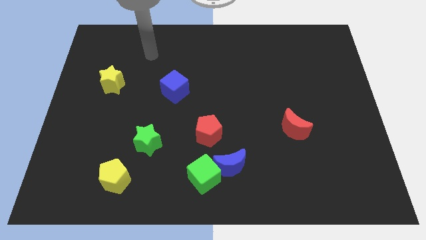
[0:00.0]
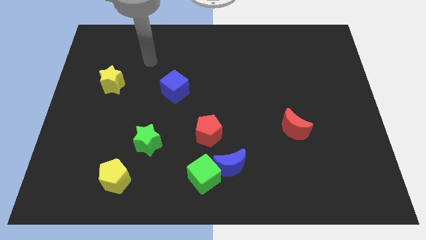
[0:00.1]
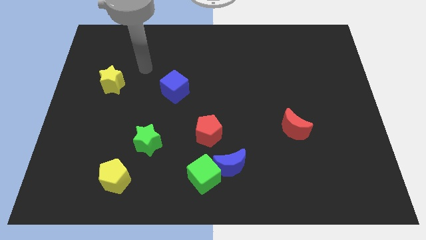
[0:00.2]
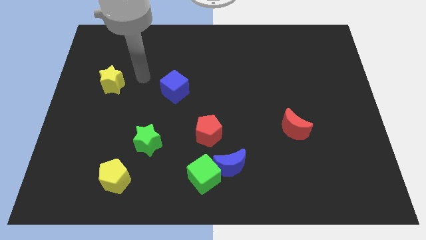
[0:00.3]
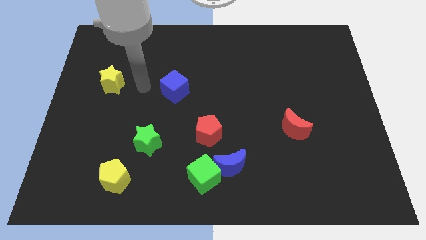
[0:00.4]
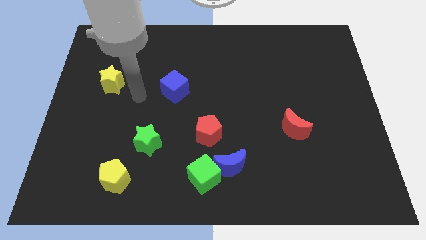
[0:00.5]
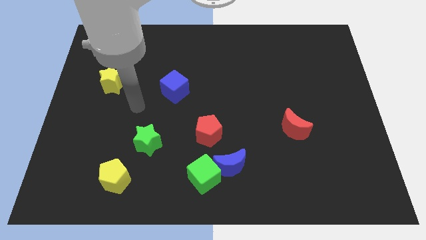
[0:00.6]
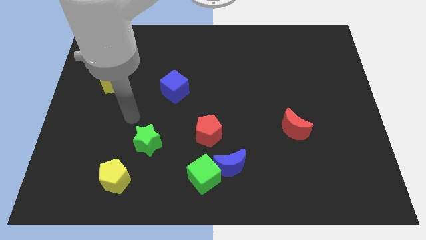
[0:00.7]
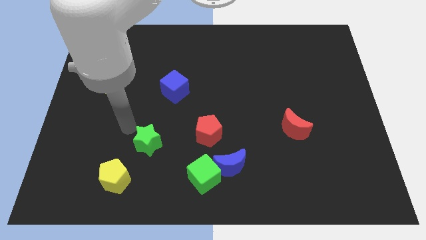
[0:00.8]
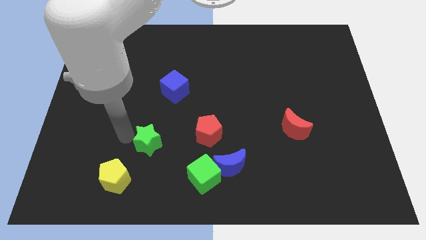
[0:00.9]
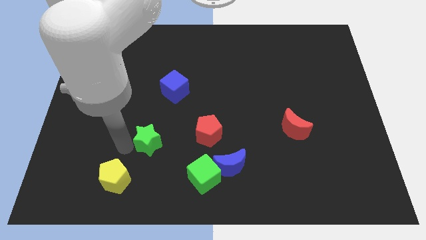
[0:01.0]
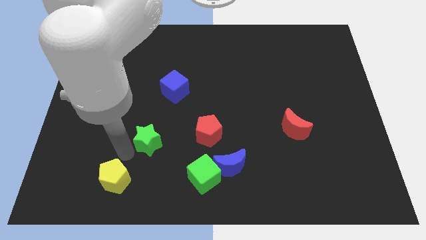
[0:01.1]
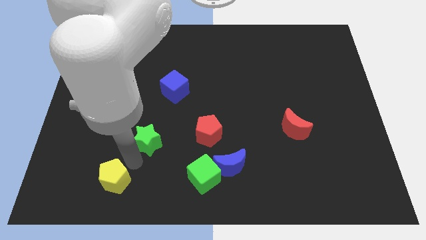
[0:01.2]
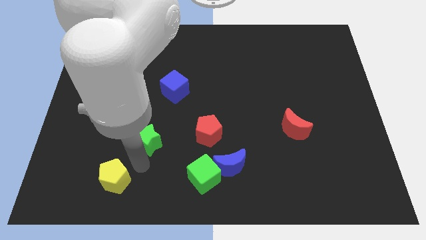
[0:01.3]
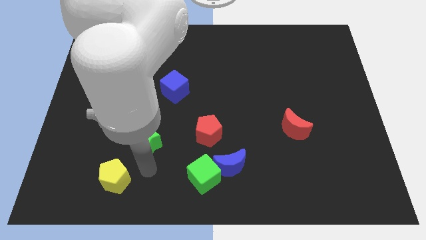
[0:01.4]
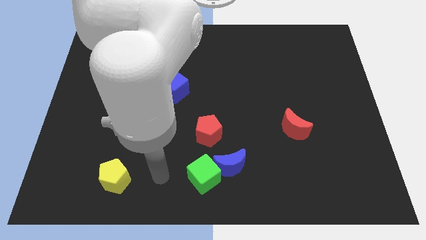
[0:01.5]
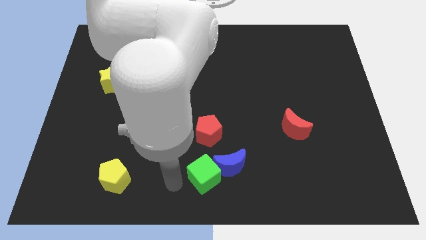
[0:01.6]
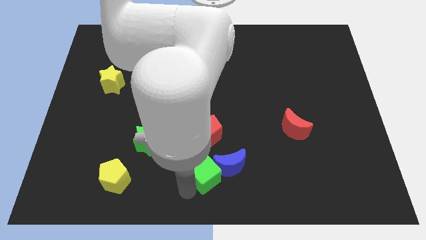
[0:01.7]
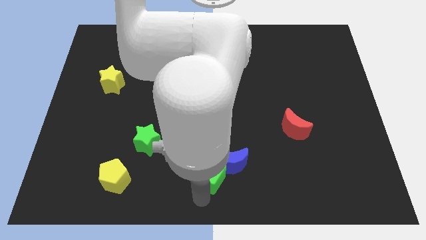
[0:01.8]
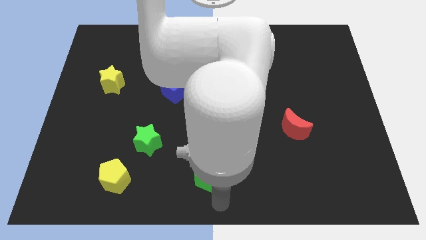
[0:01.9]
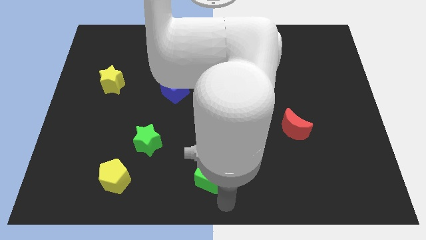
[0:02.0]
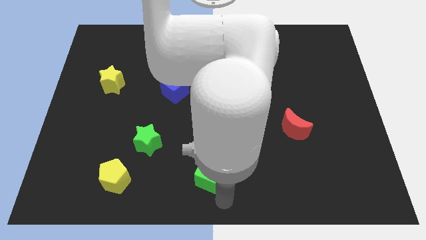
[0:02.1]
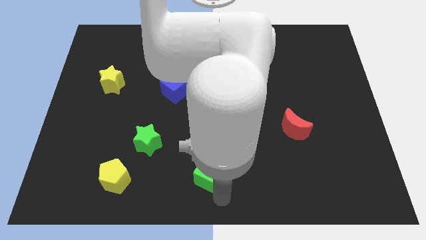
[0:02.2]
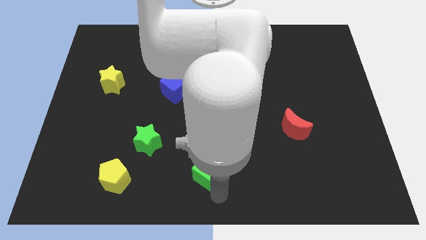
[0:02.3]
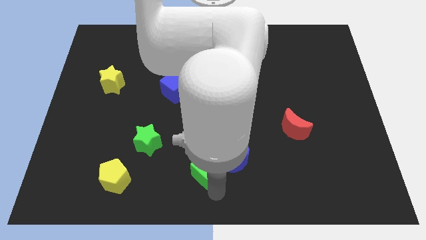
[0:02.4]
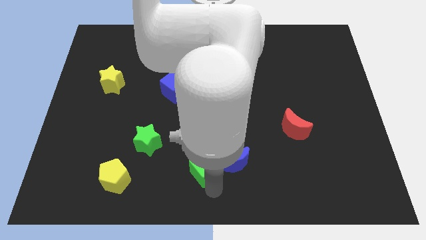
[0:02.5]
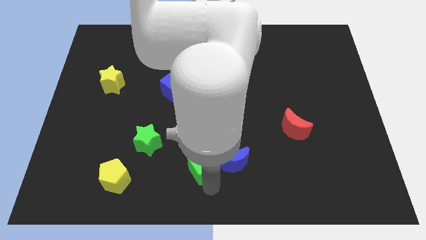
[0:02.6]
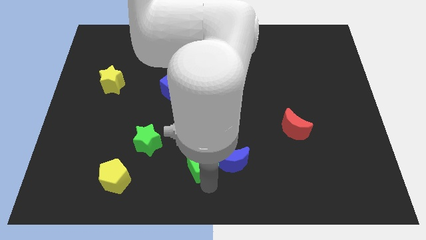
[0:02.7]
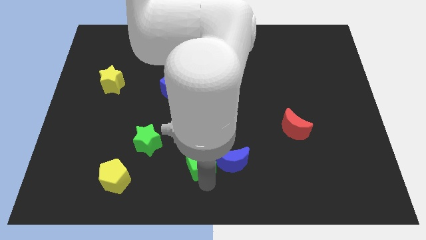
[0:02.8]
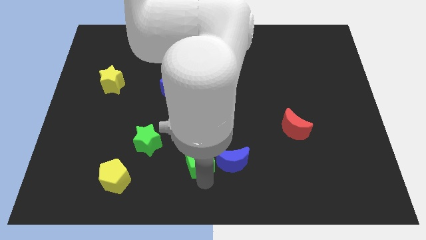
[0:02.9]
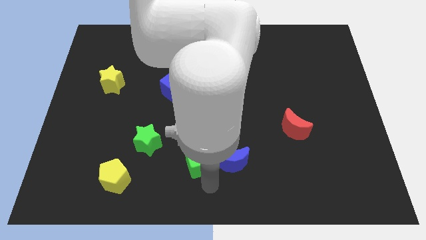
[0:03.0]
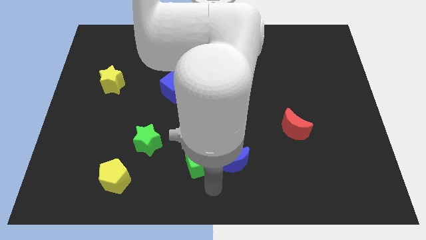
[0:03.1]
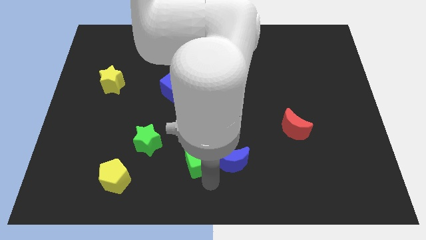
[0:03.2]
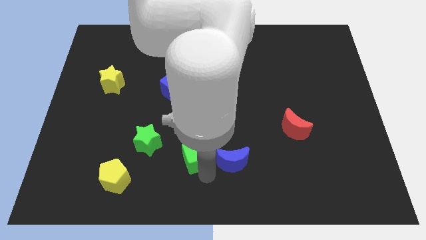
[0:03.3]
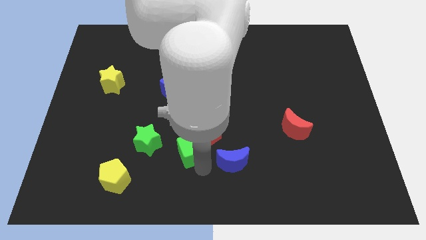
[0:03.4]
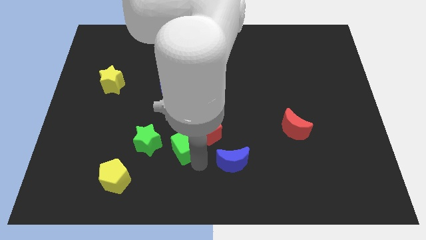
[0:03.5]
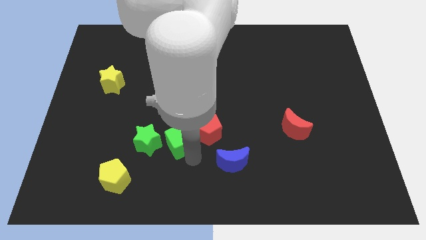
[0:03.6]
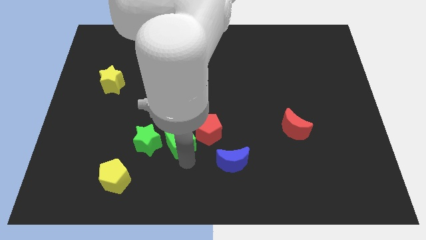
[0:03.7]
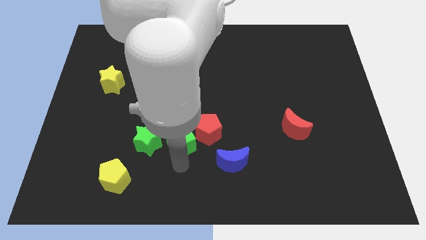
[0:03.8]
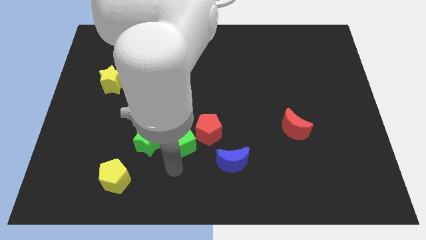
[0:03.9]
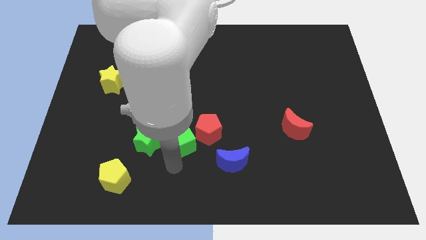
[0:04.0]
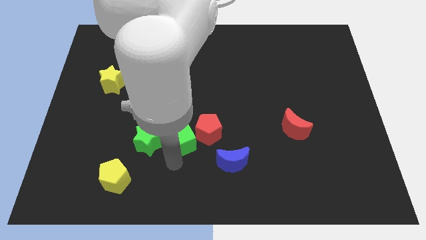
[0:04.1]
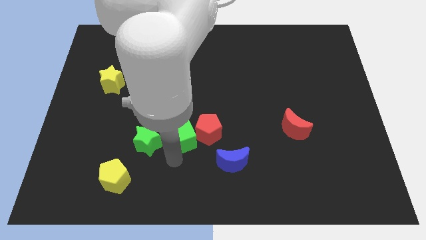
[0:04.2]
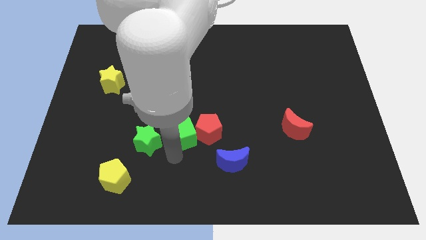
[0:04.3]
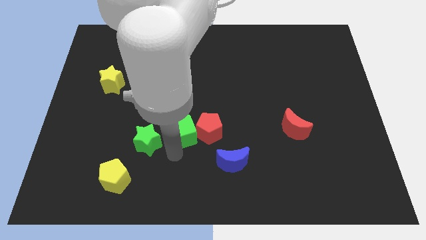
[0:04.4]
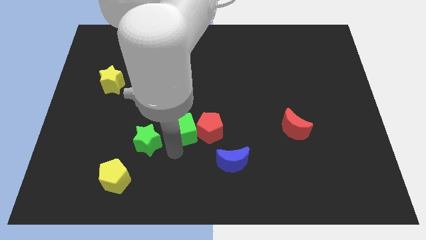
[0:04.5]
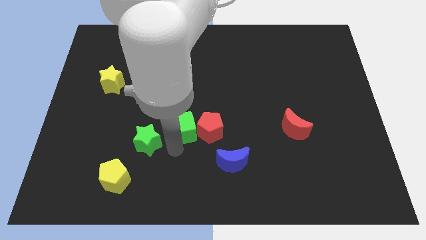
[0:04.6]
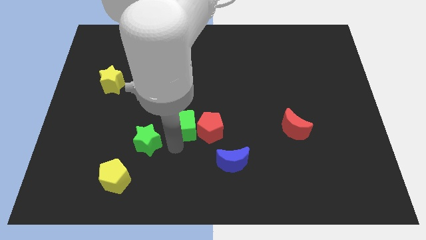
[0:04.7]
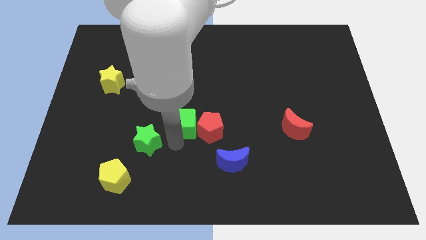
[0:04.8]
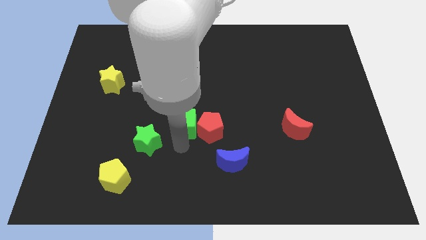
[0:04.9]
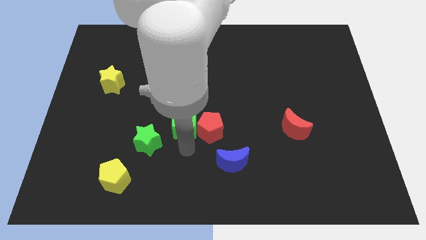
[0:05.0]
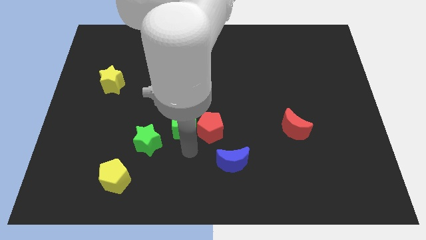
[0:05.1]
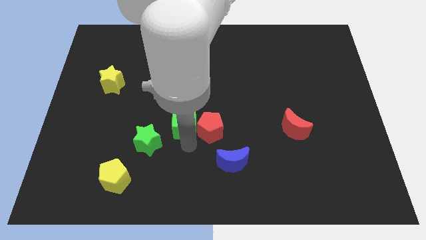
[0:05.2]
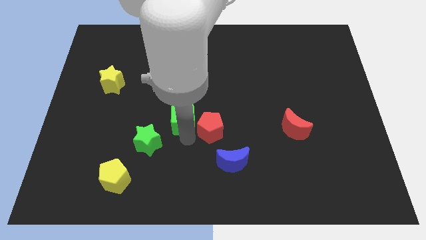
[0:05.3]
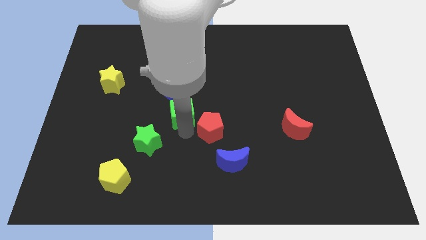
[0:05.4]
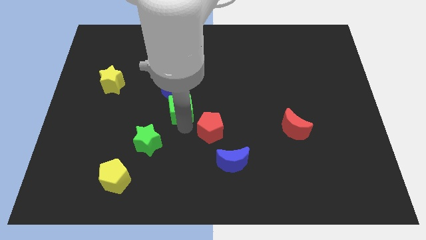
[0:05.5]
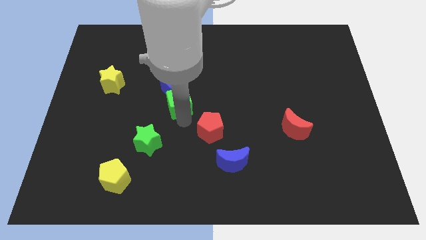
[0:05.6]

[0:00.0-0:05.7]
move the green cube towards the blue cube

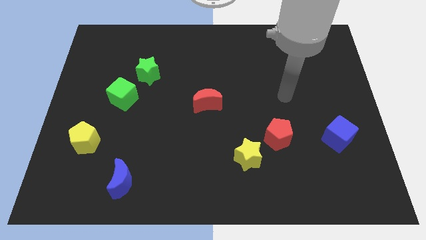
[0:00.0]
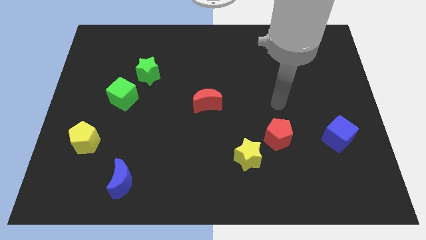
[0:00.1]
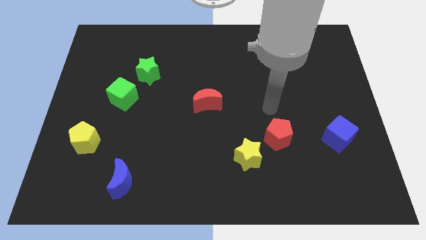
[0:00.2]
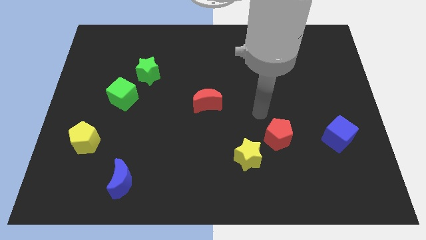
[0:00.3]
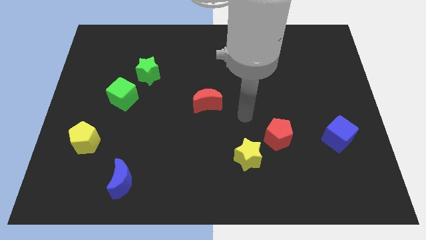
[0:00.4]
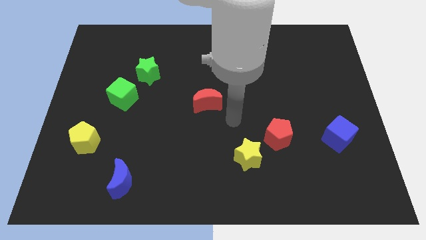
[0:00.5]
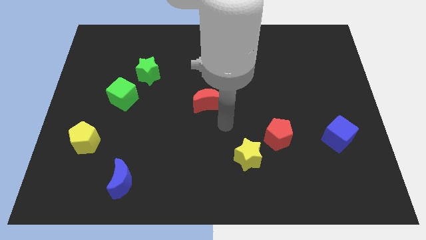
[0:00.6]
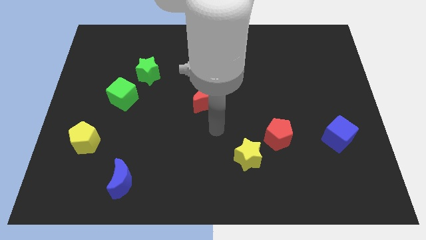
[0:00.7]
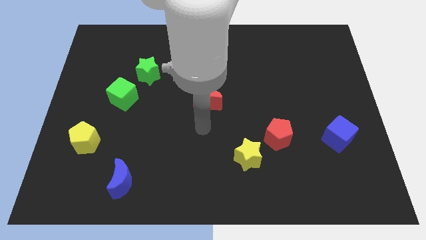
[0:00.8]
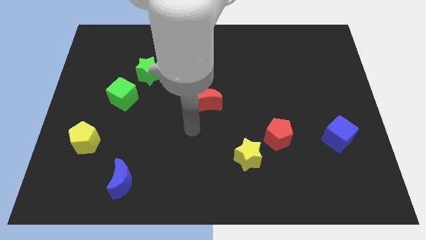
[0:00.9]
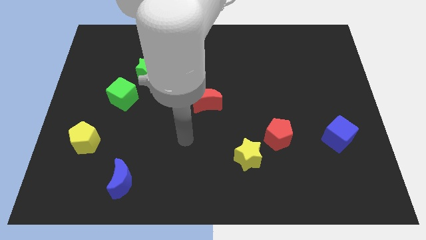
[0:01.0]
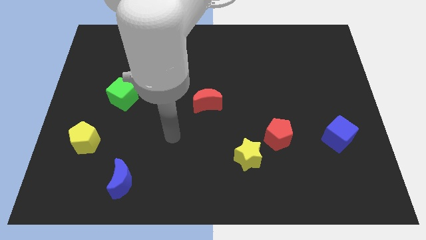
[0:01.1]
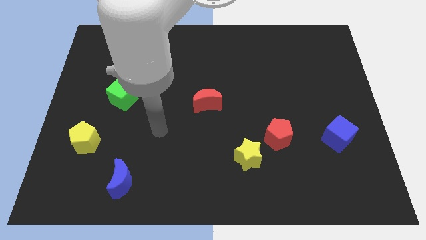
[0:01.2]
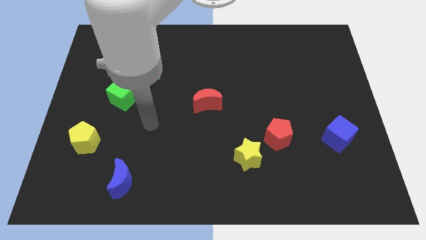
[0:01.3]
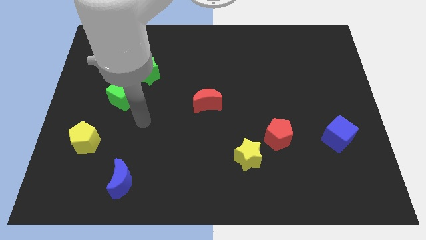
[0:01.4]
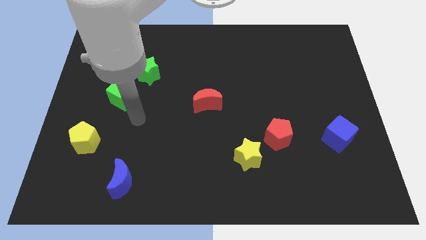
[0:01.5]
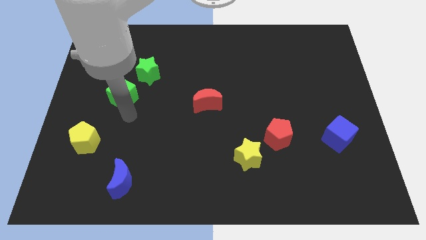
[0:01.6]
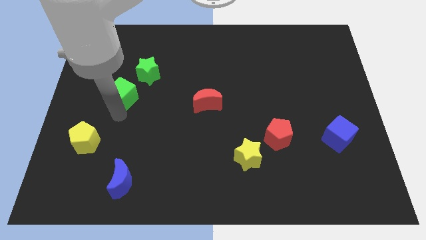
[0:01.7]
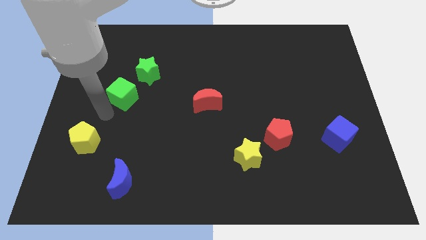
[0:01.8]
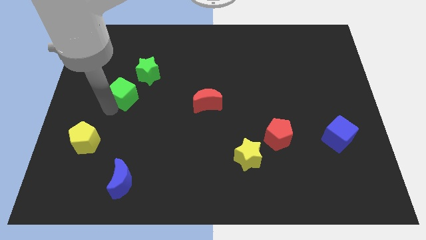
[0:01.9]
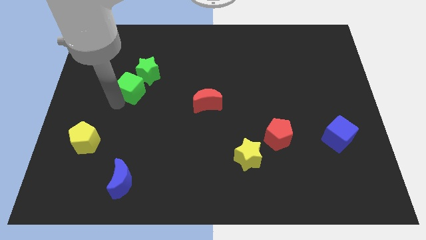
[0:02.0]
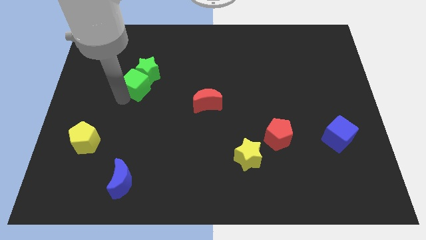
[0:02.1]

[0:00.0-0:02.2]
move the green cube close to the green star
